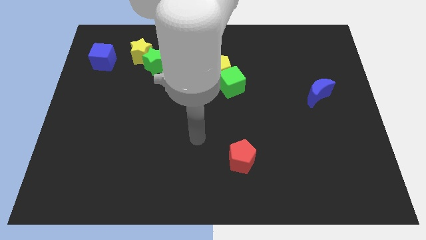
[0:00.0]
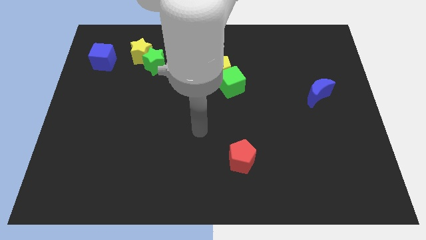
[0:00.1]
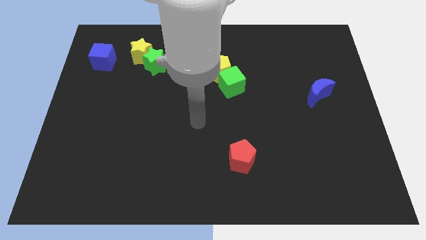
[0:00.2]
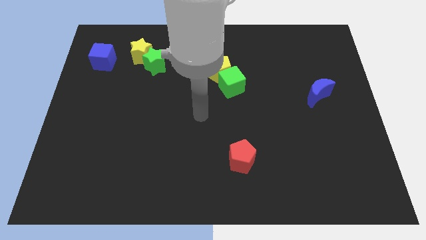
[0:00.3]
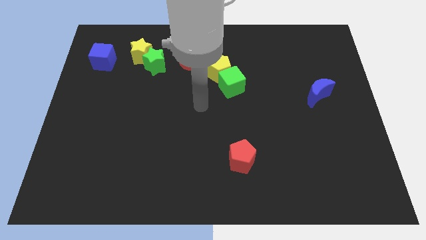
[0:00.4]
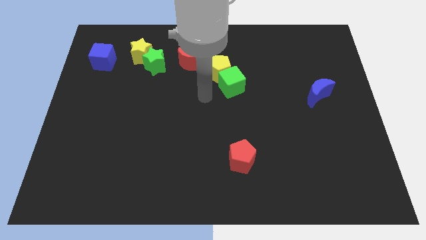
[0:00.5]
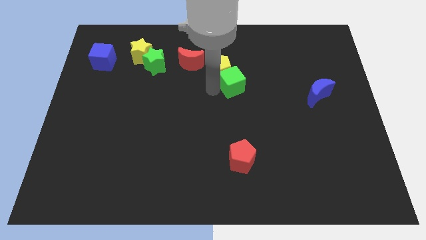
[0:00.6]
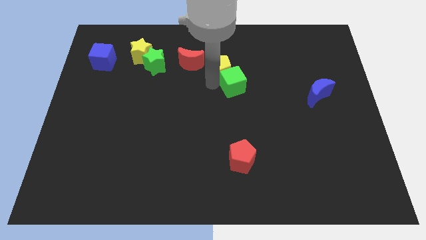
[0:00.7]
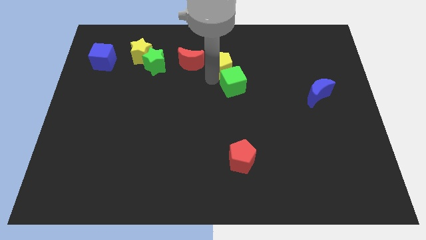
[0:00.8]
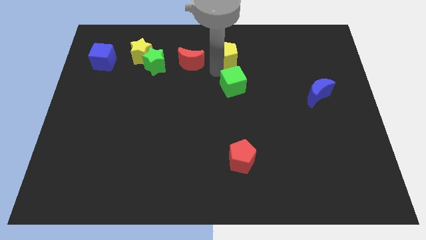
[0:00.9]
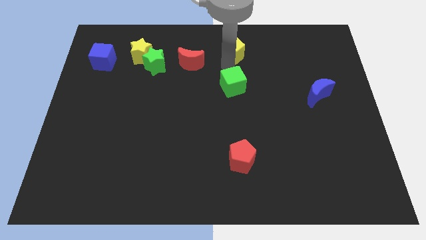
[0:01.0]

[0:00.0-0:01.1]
pull the green cube apart from the yellow pentagon

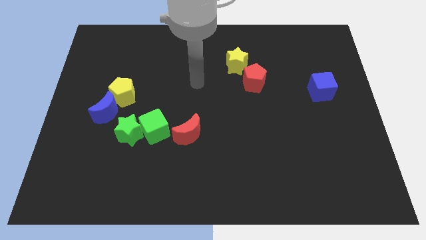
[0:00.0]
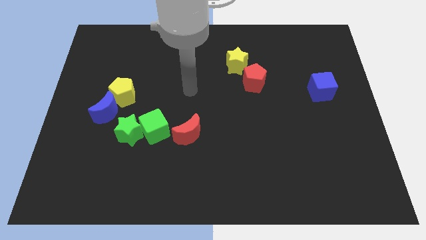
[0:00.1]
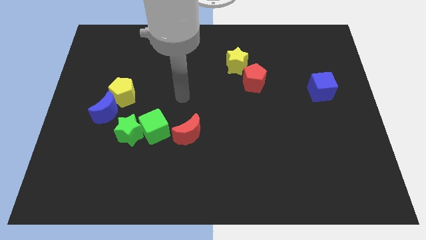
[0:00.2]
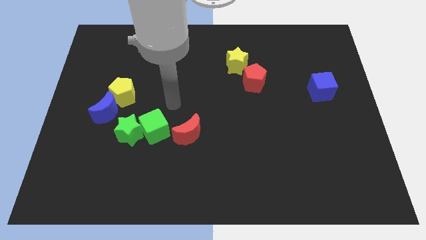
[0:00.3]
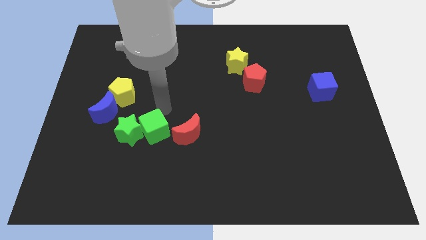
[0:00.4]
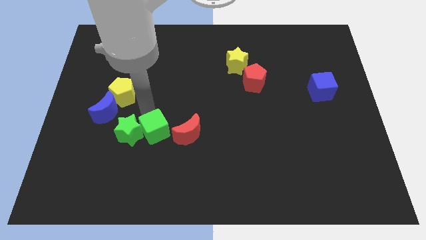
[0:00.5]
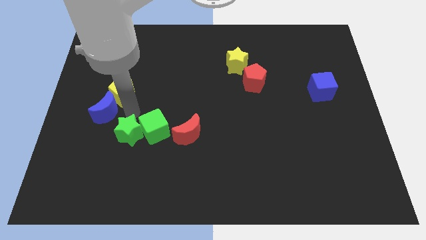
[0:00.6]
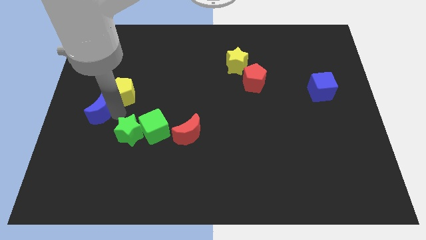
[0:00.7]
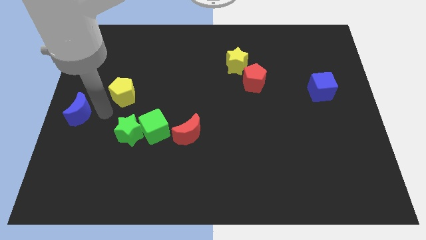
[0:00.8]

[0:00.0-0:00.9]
pull the yellow pentagon apart from the blue moon

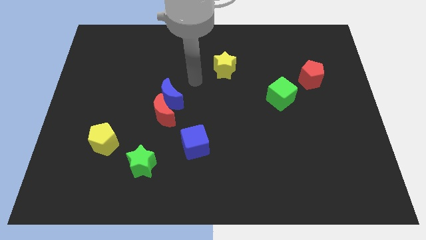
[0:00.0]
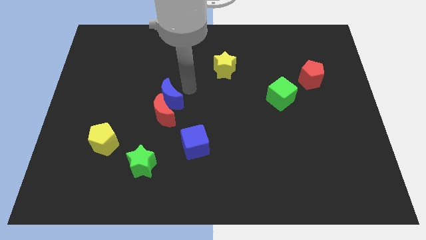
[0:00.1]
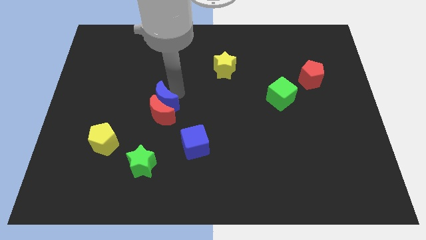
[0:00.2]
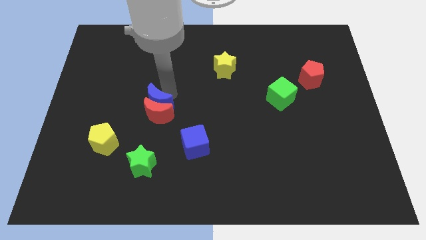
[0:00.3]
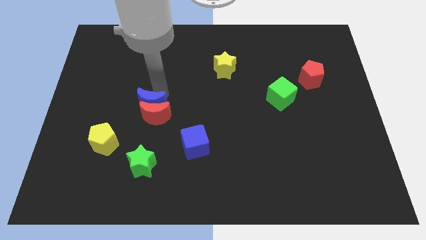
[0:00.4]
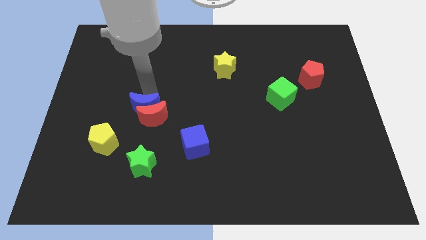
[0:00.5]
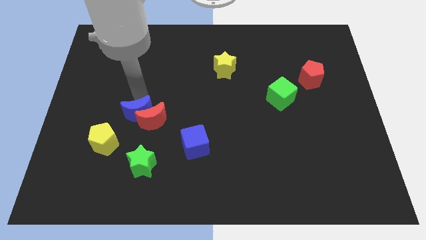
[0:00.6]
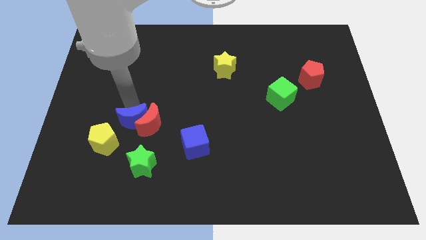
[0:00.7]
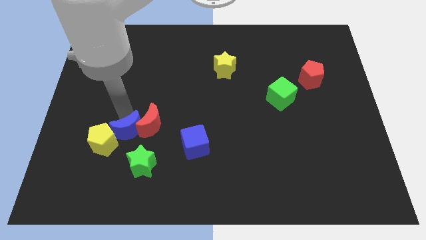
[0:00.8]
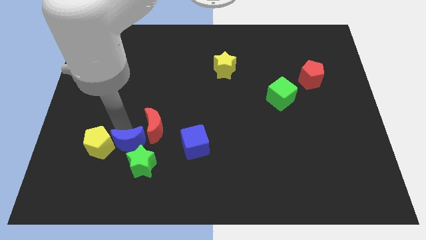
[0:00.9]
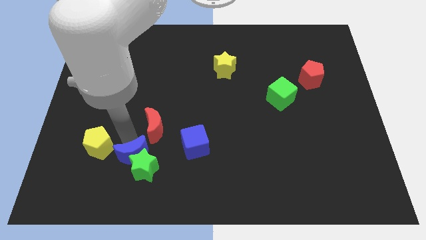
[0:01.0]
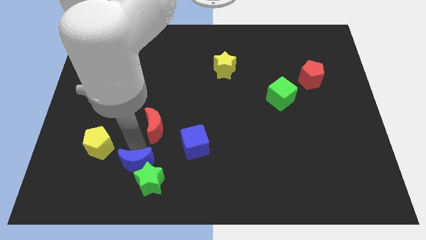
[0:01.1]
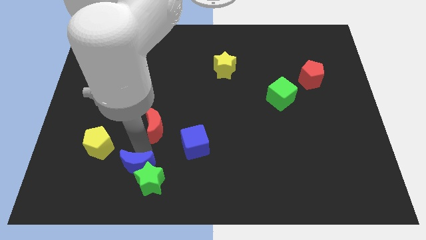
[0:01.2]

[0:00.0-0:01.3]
move the red moon away from the blue moon

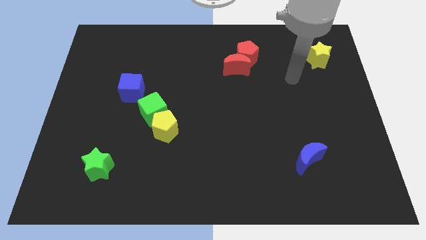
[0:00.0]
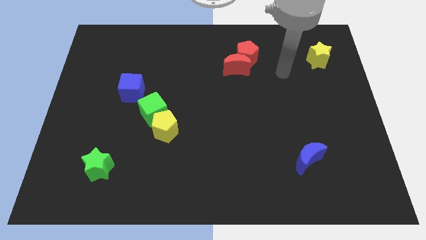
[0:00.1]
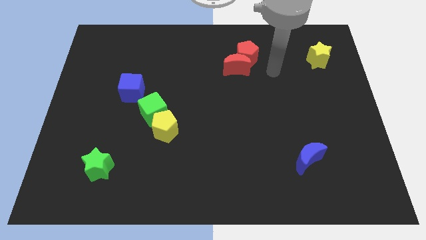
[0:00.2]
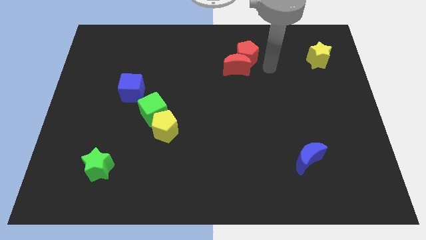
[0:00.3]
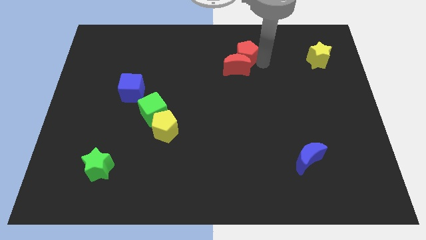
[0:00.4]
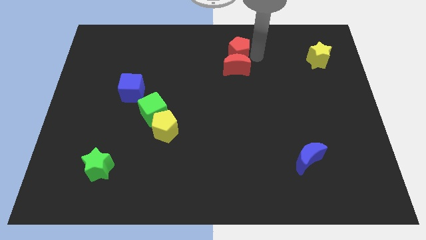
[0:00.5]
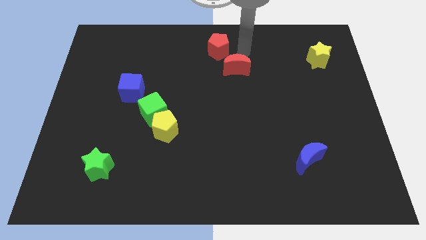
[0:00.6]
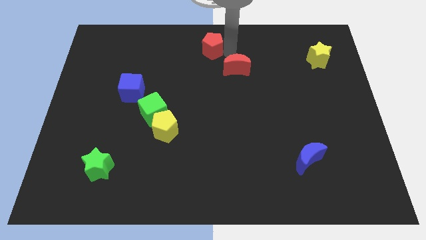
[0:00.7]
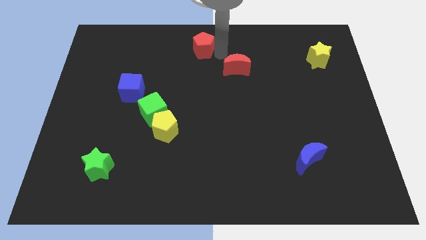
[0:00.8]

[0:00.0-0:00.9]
move the red moon away from the red pentagon

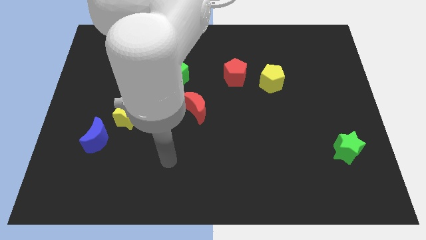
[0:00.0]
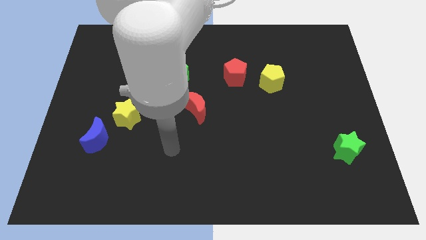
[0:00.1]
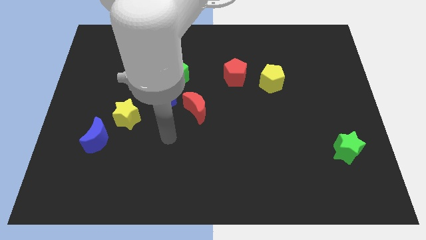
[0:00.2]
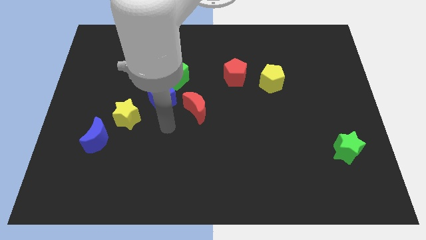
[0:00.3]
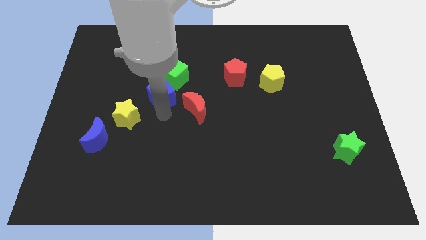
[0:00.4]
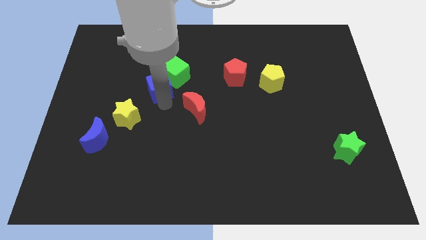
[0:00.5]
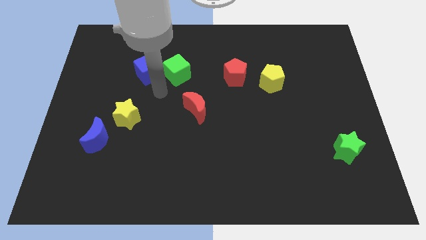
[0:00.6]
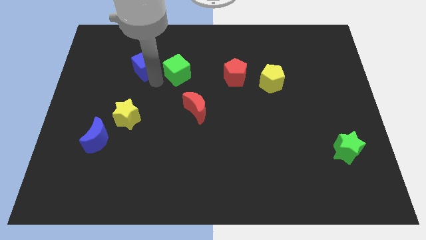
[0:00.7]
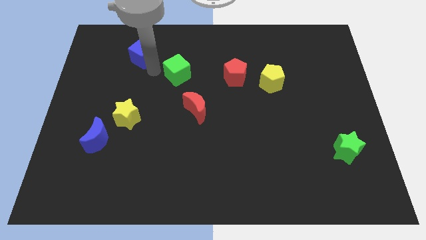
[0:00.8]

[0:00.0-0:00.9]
separate the green cube from the blue cube

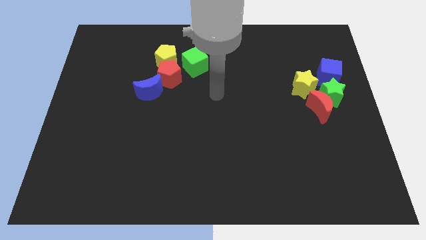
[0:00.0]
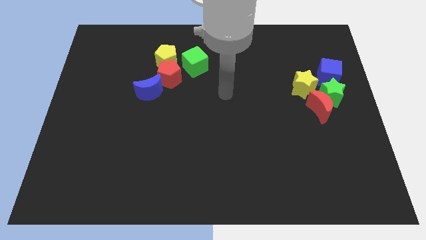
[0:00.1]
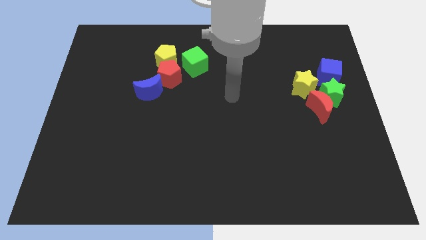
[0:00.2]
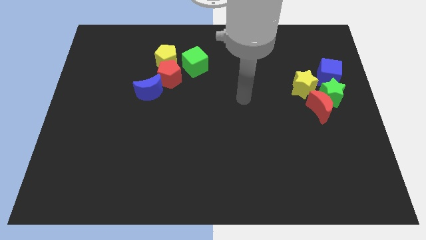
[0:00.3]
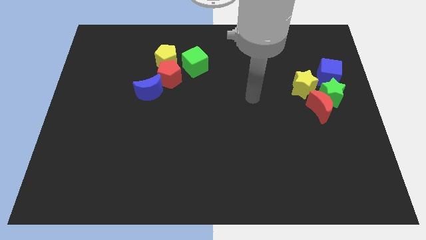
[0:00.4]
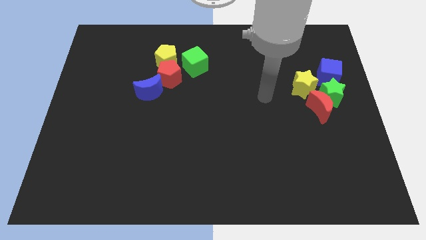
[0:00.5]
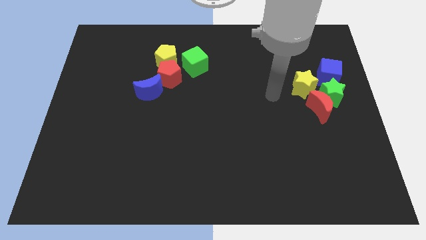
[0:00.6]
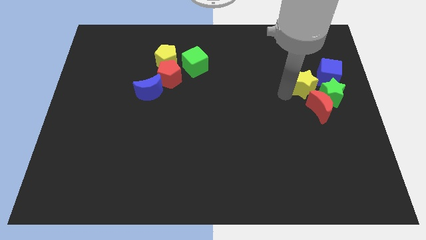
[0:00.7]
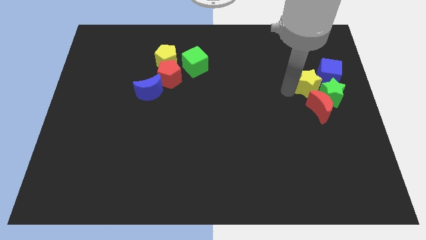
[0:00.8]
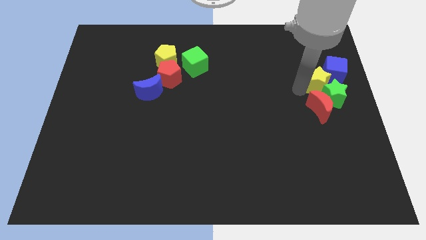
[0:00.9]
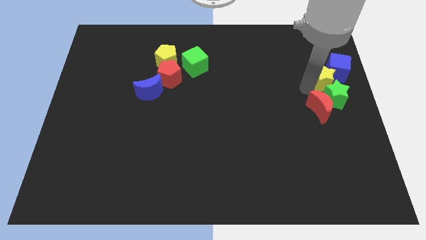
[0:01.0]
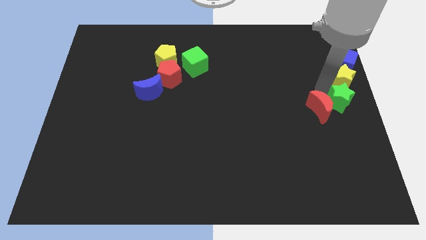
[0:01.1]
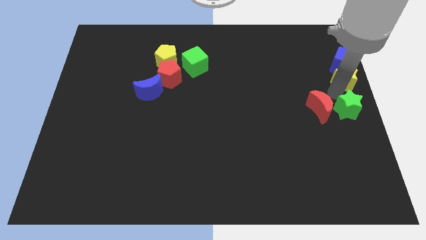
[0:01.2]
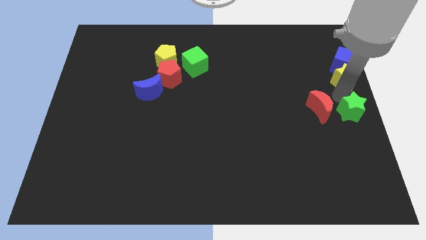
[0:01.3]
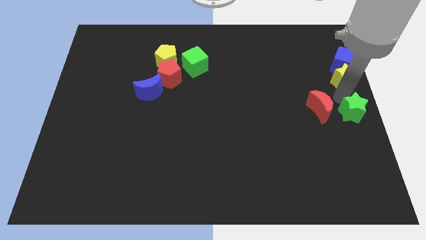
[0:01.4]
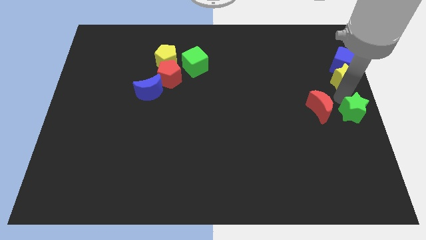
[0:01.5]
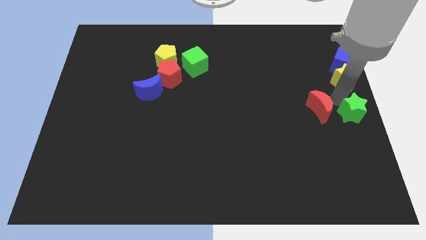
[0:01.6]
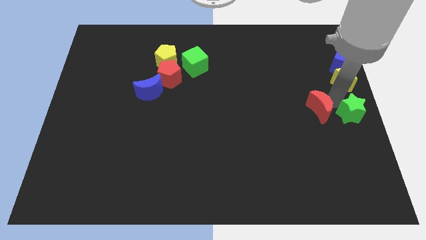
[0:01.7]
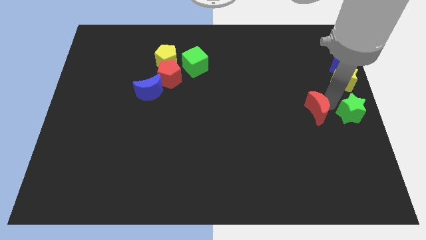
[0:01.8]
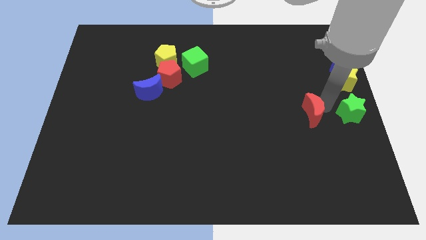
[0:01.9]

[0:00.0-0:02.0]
pull the red moon apart from the green star and yellow star

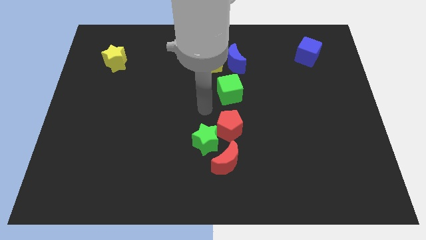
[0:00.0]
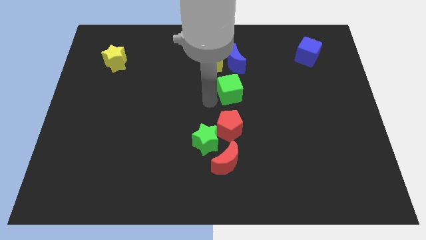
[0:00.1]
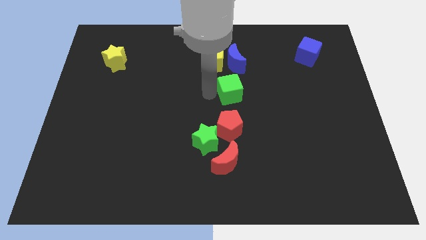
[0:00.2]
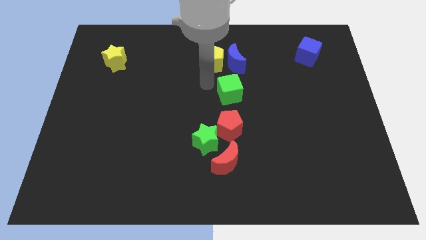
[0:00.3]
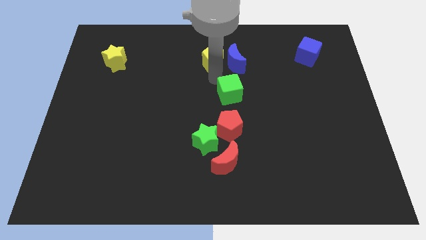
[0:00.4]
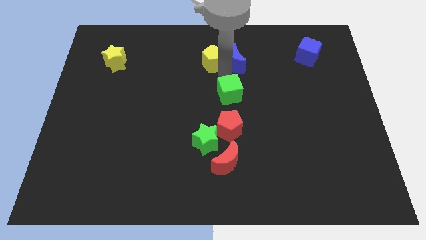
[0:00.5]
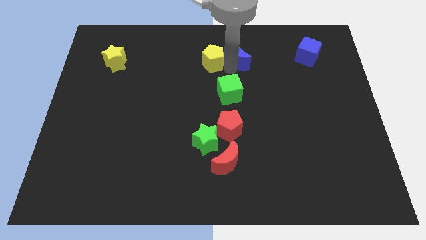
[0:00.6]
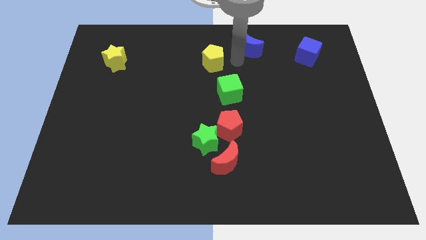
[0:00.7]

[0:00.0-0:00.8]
separate the yellow pentagon from the blue moon

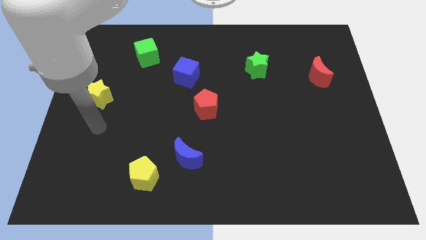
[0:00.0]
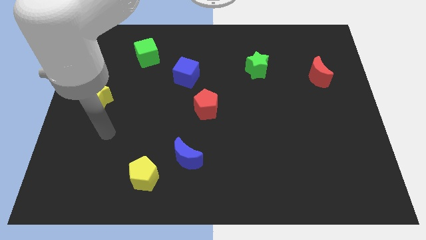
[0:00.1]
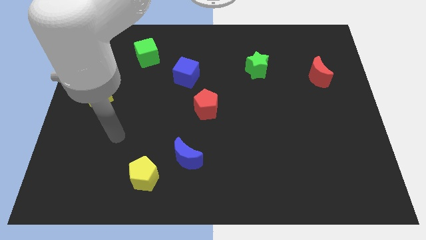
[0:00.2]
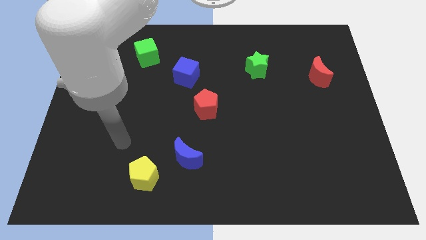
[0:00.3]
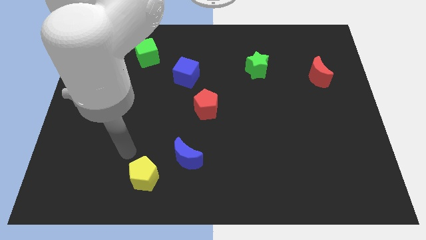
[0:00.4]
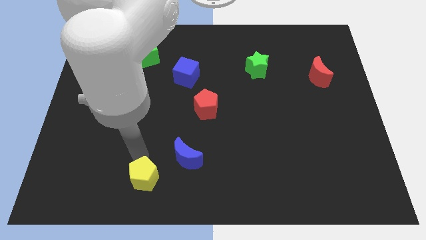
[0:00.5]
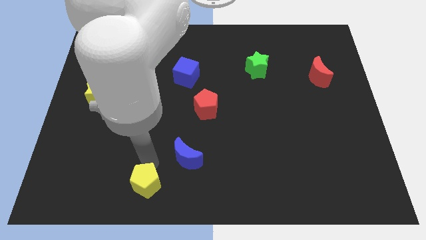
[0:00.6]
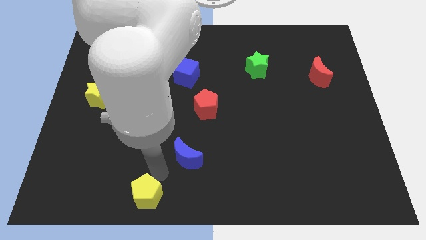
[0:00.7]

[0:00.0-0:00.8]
separate the blue moon from the yellow pentagon

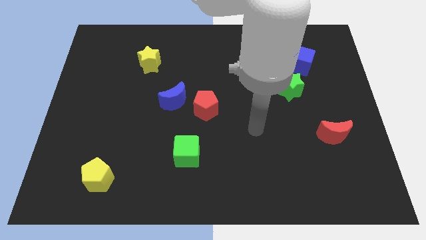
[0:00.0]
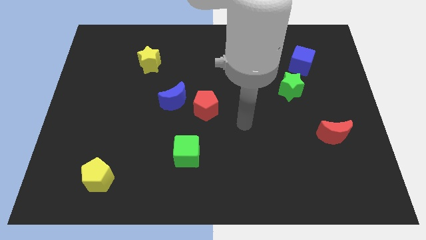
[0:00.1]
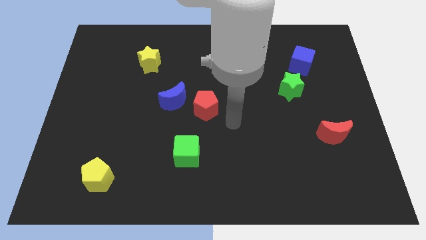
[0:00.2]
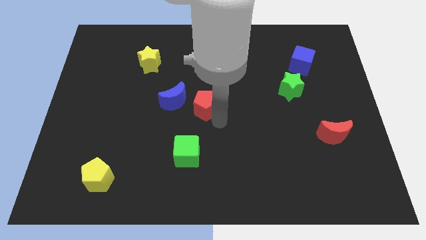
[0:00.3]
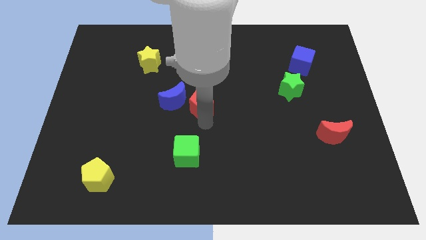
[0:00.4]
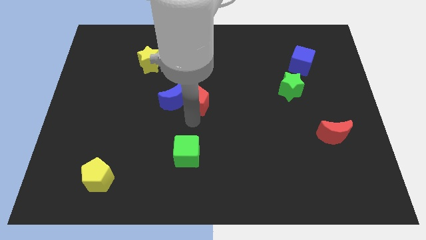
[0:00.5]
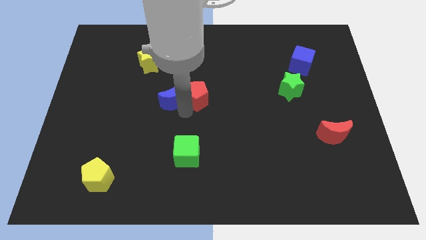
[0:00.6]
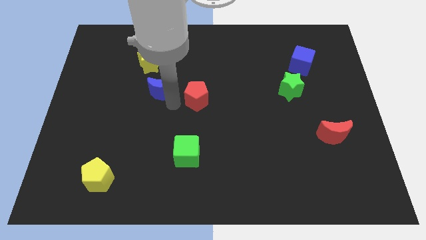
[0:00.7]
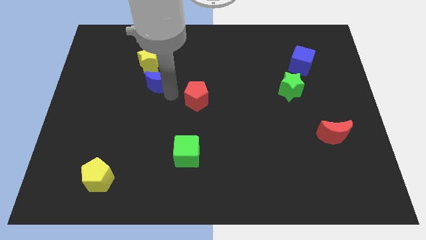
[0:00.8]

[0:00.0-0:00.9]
pull the red pentagon apart from the blue moon
